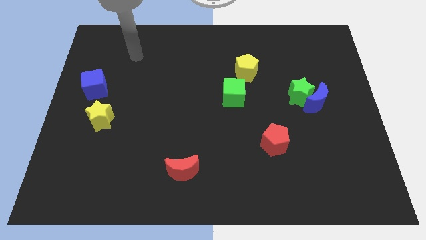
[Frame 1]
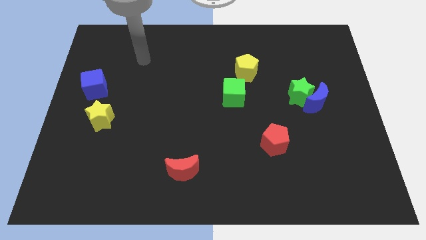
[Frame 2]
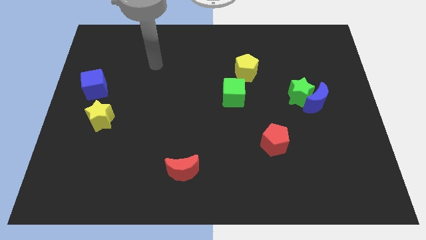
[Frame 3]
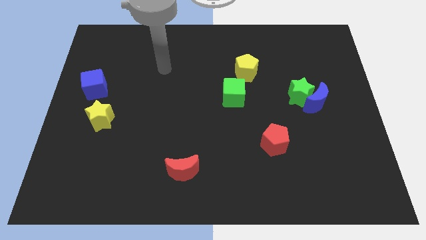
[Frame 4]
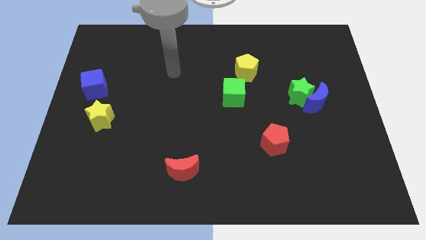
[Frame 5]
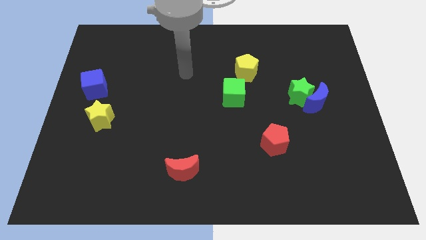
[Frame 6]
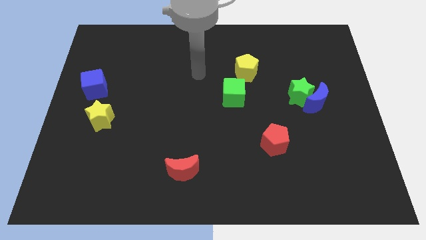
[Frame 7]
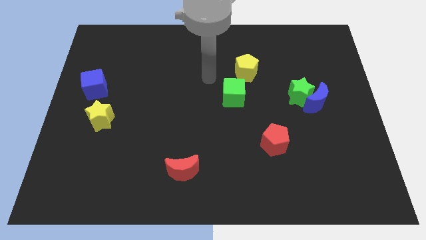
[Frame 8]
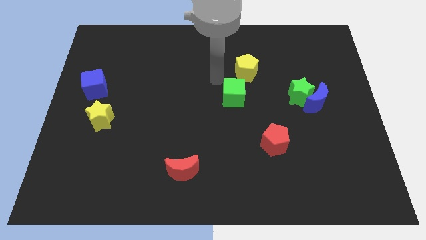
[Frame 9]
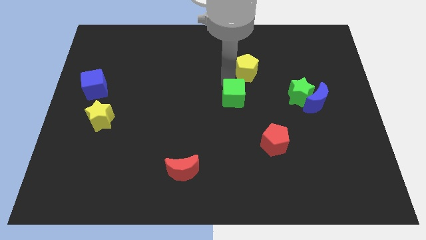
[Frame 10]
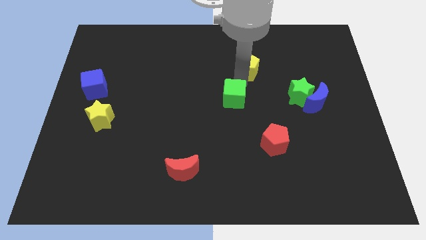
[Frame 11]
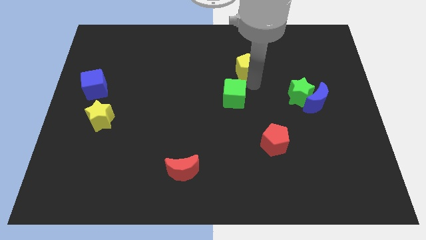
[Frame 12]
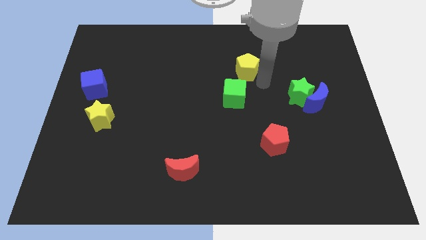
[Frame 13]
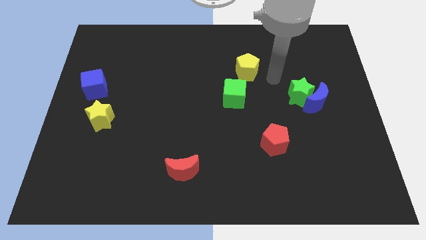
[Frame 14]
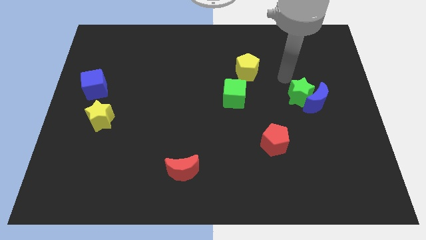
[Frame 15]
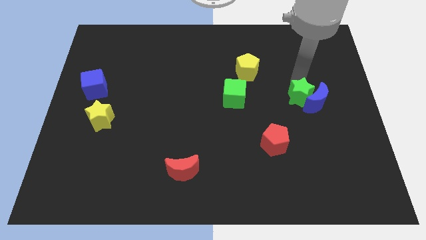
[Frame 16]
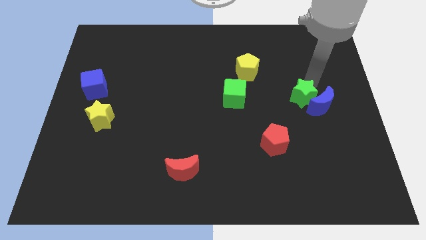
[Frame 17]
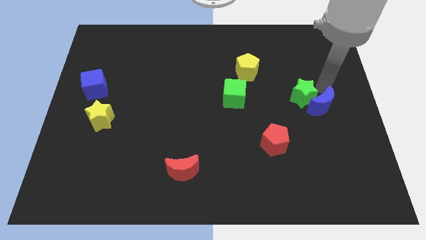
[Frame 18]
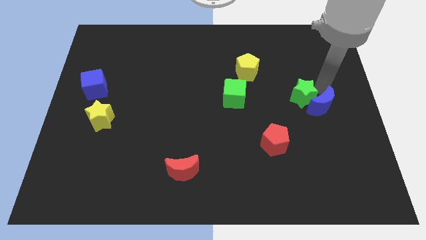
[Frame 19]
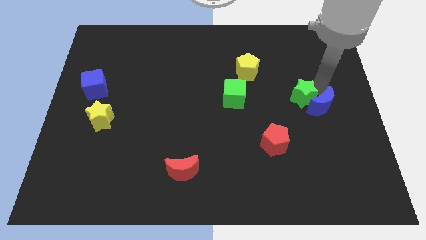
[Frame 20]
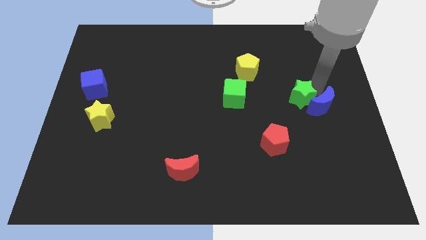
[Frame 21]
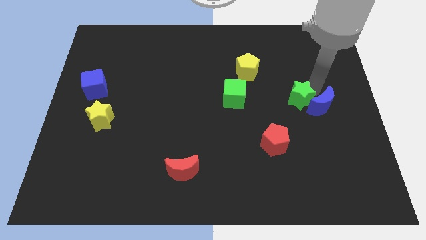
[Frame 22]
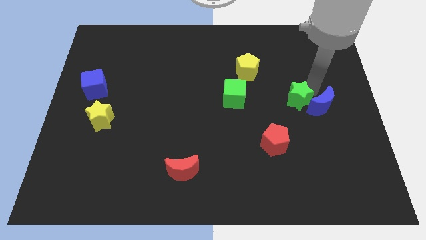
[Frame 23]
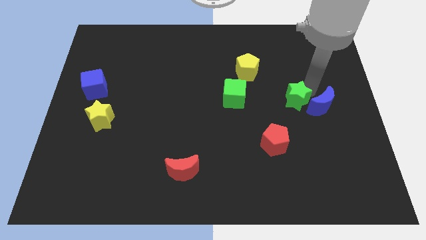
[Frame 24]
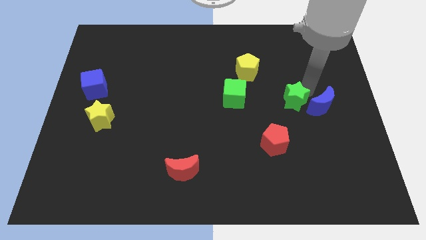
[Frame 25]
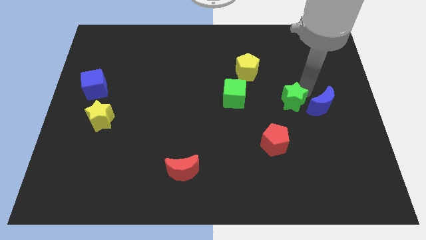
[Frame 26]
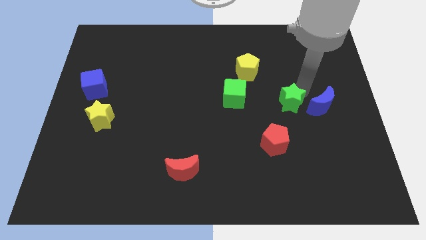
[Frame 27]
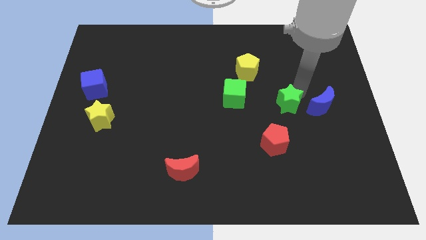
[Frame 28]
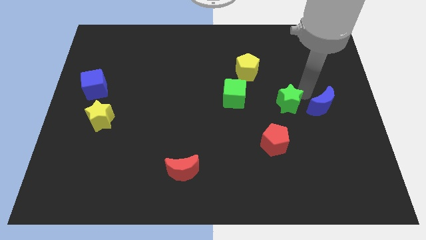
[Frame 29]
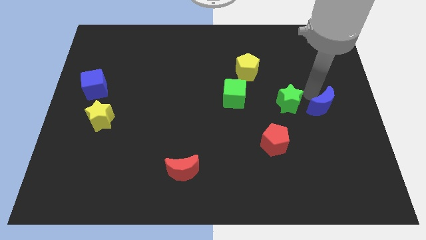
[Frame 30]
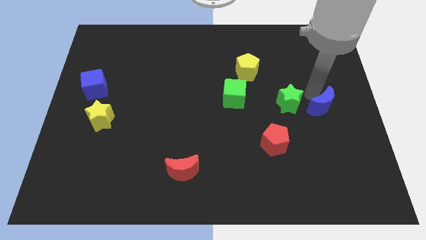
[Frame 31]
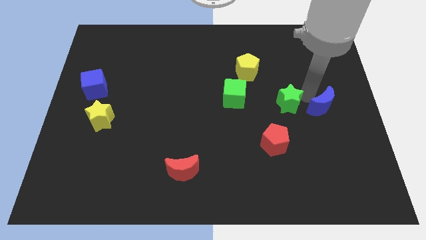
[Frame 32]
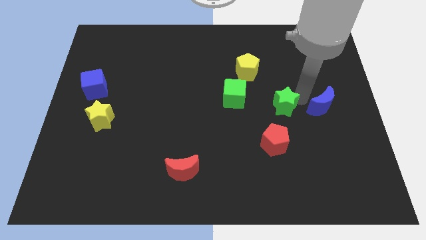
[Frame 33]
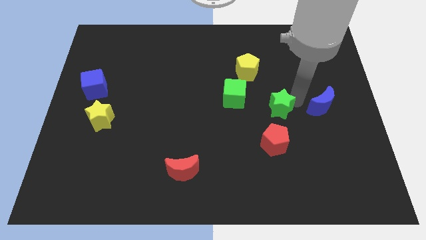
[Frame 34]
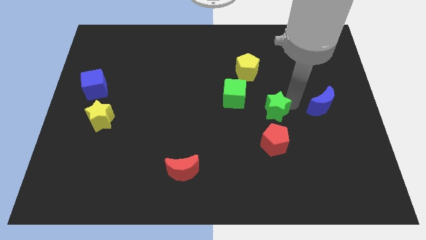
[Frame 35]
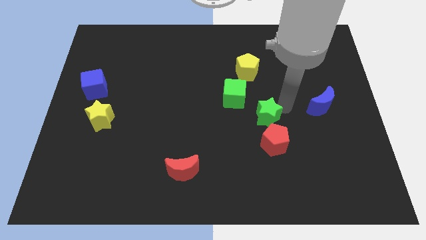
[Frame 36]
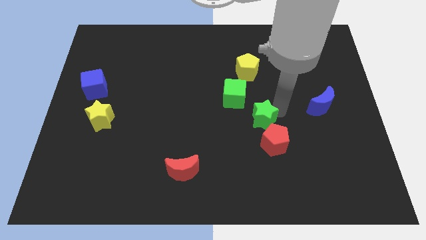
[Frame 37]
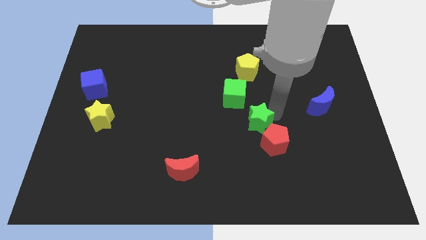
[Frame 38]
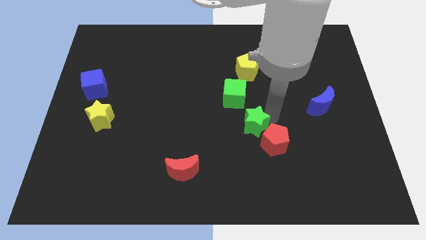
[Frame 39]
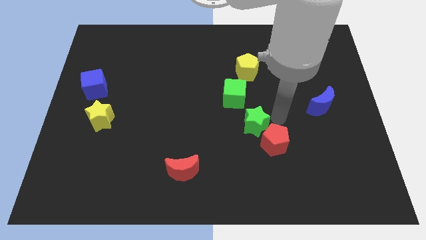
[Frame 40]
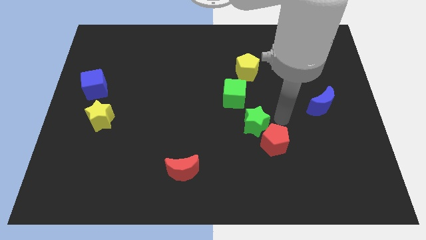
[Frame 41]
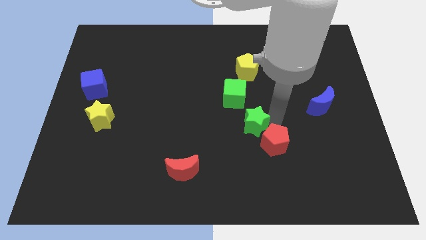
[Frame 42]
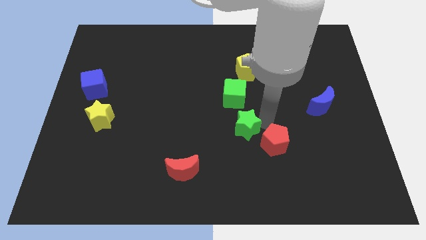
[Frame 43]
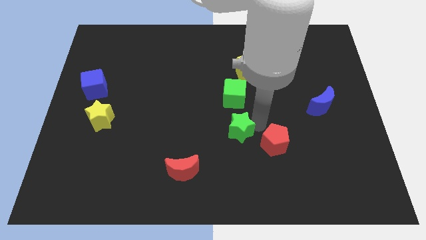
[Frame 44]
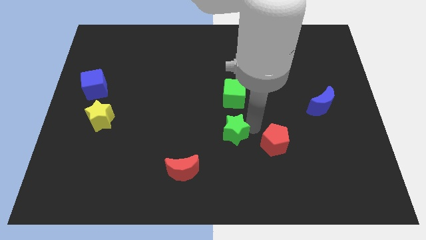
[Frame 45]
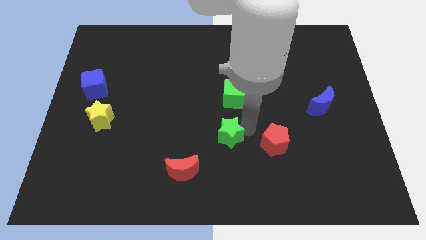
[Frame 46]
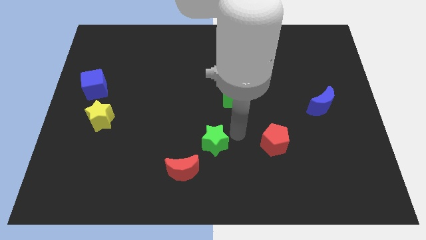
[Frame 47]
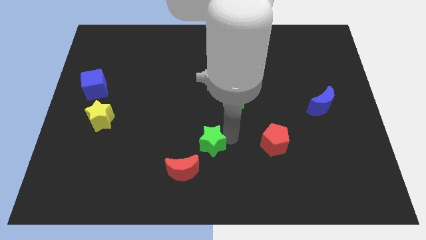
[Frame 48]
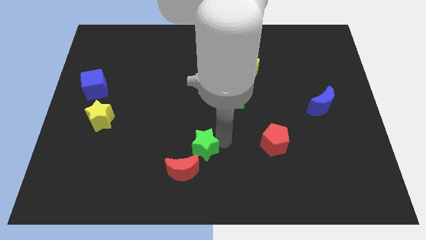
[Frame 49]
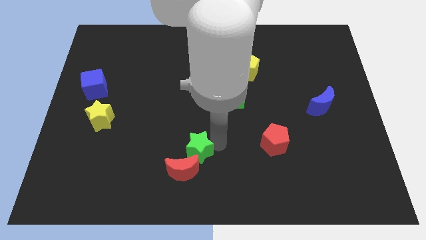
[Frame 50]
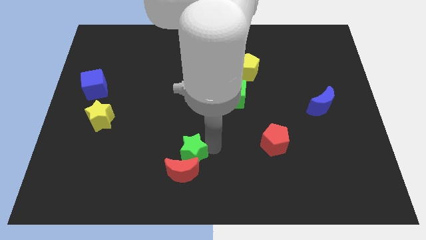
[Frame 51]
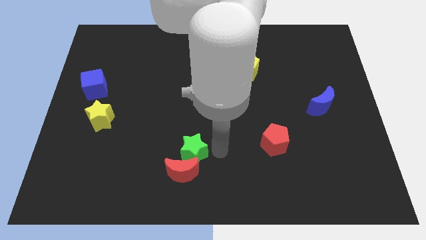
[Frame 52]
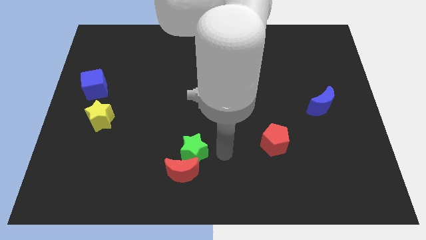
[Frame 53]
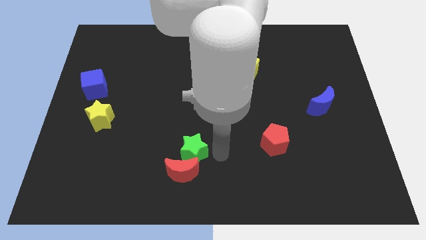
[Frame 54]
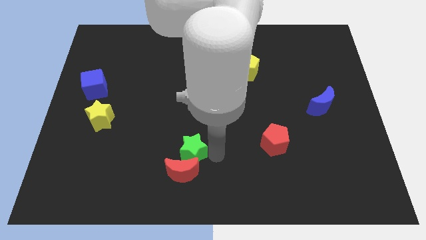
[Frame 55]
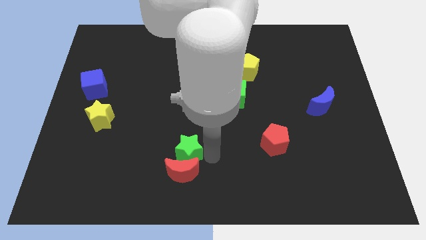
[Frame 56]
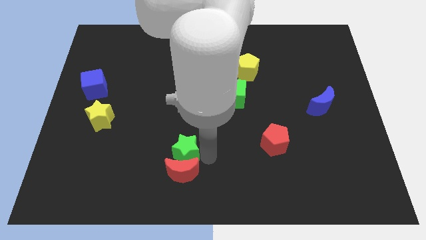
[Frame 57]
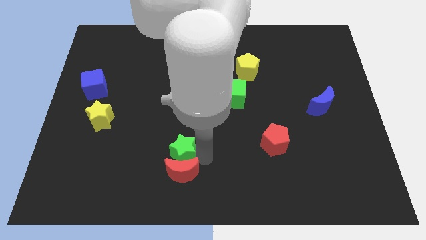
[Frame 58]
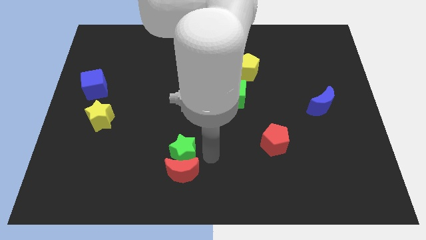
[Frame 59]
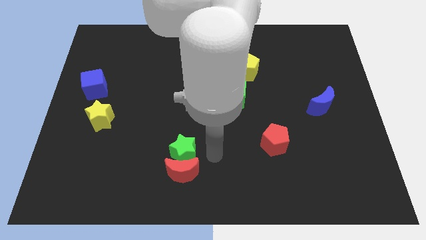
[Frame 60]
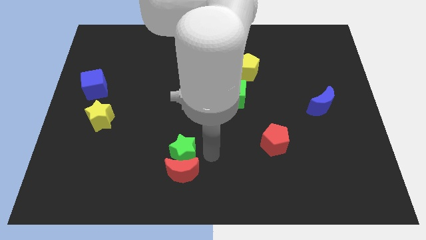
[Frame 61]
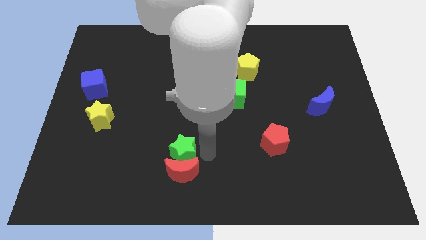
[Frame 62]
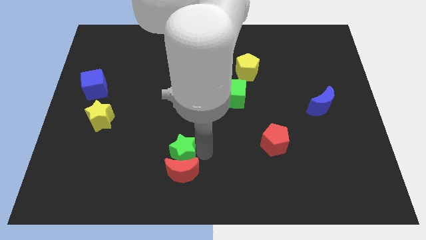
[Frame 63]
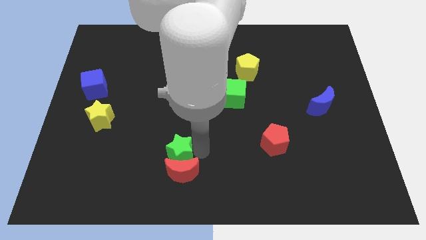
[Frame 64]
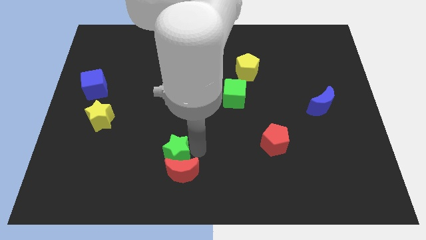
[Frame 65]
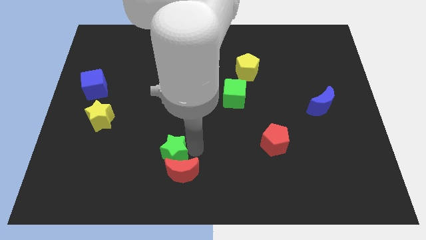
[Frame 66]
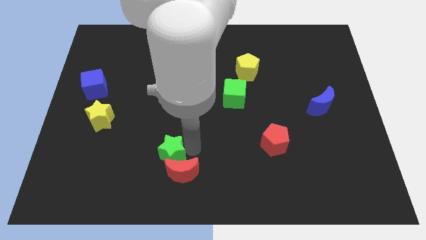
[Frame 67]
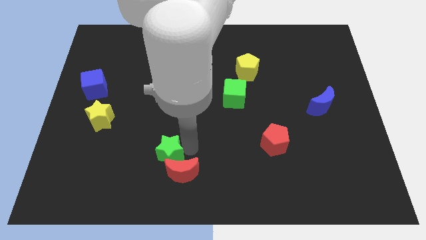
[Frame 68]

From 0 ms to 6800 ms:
slide the green star to the left of the red moon
